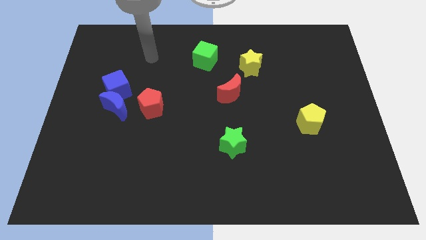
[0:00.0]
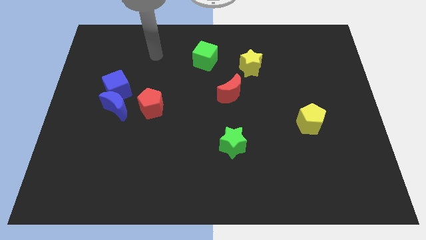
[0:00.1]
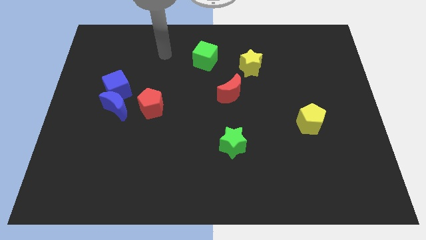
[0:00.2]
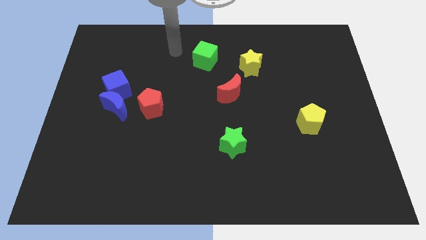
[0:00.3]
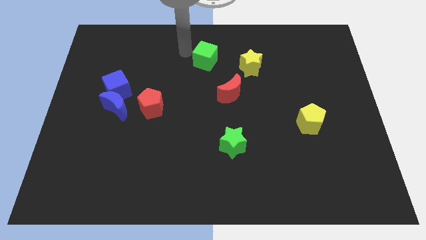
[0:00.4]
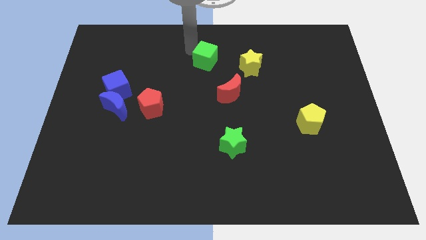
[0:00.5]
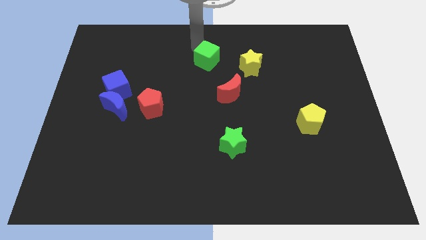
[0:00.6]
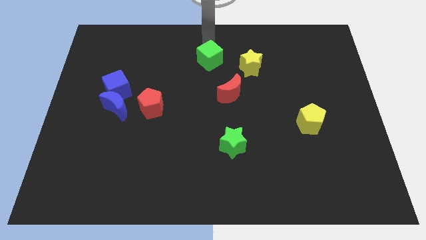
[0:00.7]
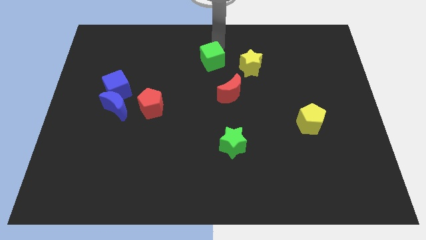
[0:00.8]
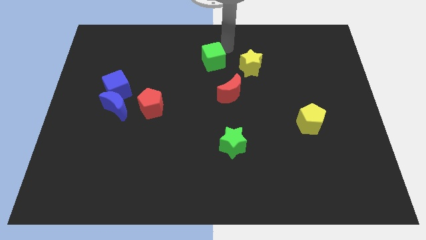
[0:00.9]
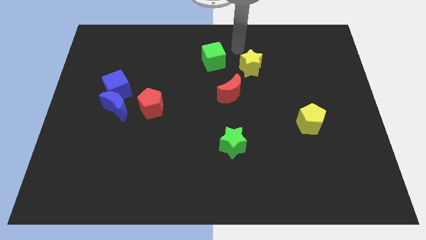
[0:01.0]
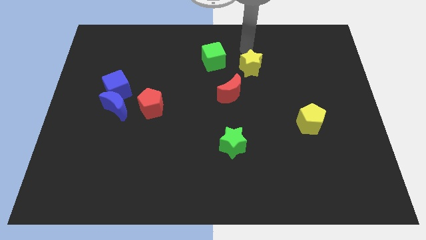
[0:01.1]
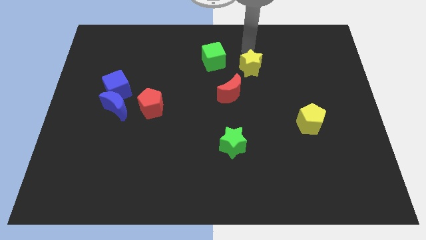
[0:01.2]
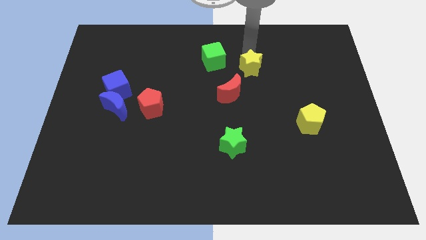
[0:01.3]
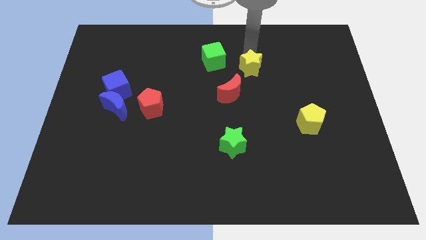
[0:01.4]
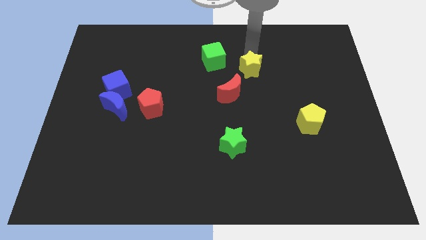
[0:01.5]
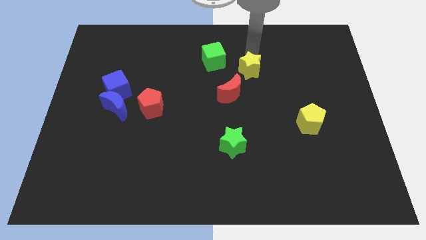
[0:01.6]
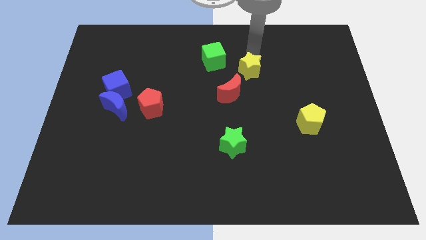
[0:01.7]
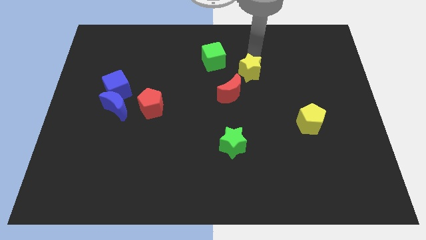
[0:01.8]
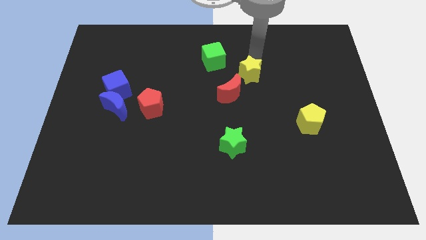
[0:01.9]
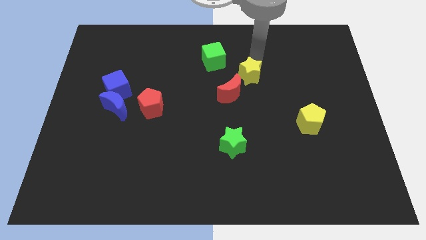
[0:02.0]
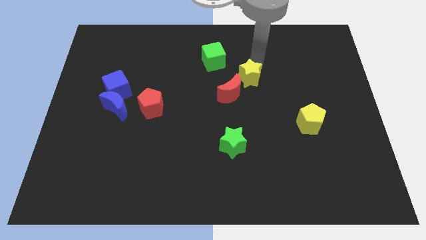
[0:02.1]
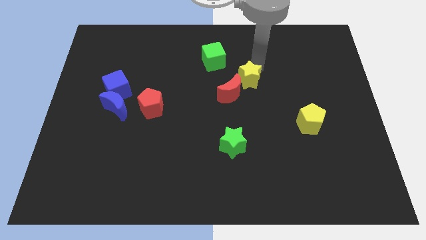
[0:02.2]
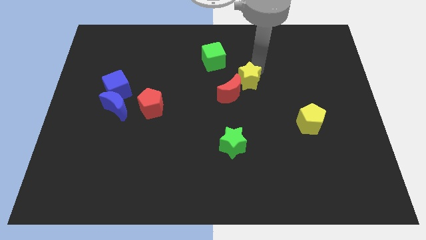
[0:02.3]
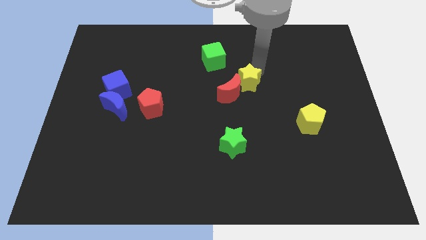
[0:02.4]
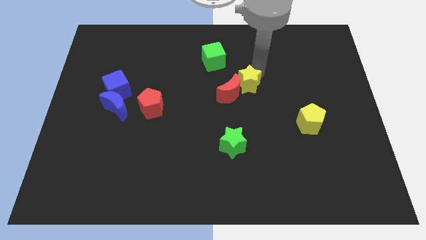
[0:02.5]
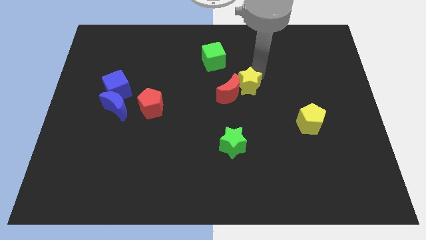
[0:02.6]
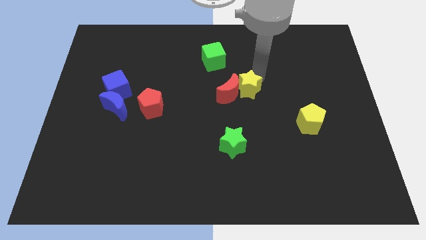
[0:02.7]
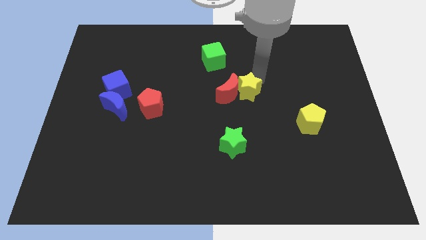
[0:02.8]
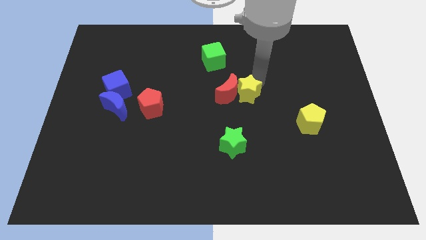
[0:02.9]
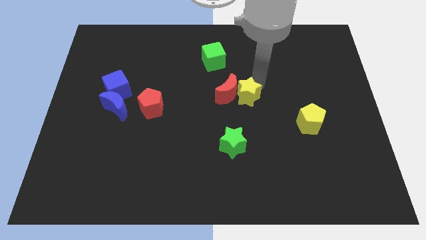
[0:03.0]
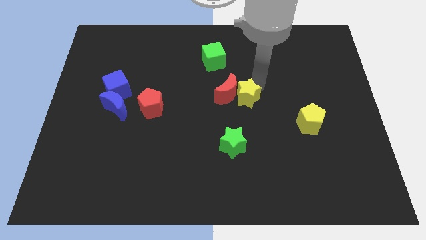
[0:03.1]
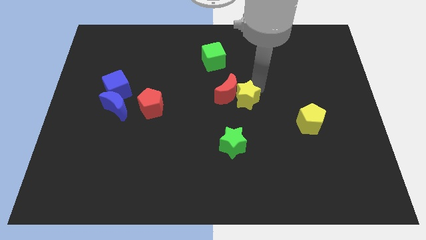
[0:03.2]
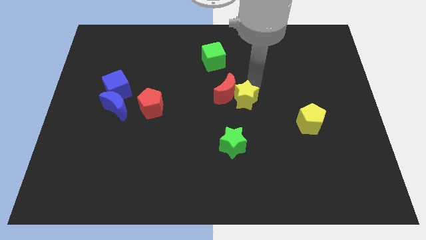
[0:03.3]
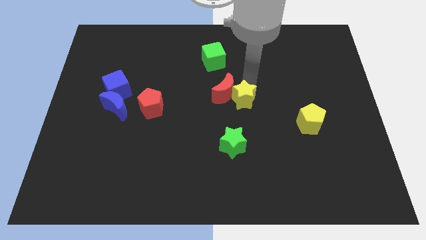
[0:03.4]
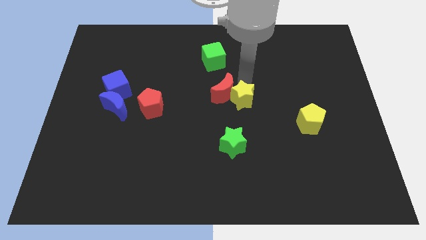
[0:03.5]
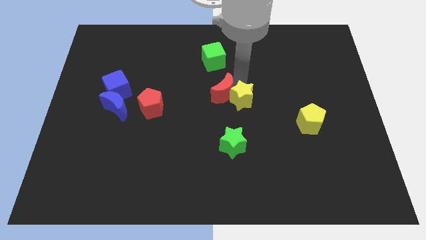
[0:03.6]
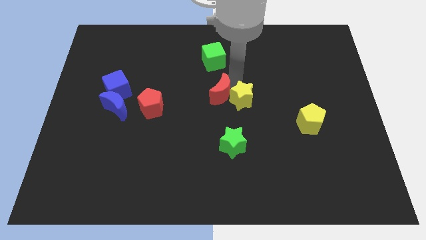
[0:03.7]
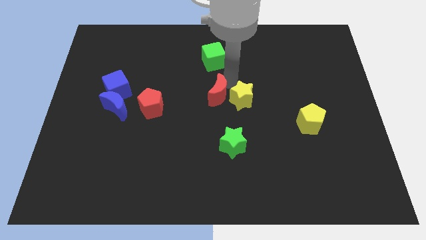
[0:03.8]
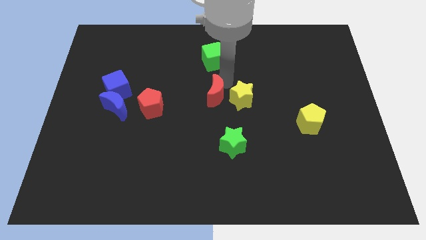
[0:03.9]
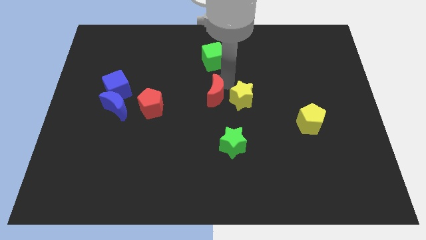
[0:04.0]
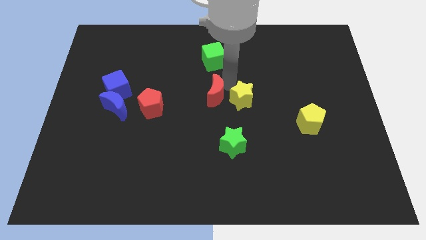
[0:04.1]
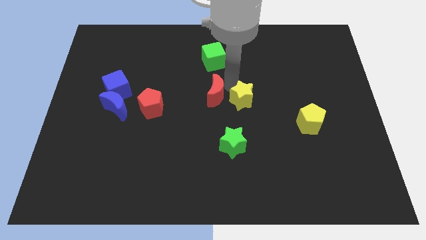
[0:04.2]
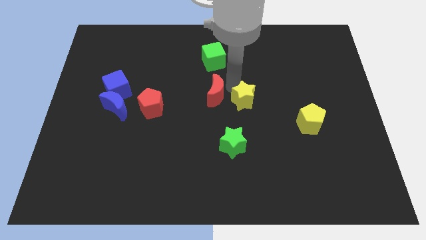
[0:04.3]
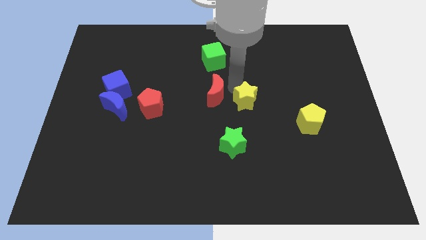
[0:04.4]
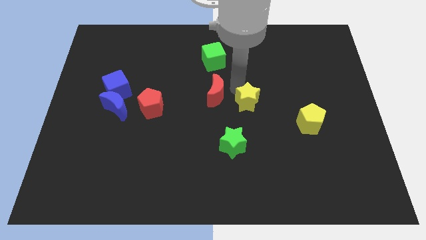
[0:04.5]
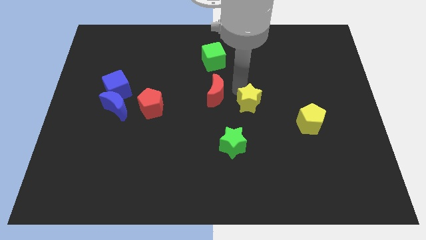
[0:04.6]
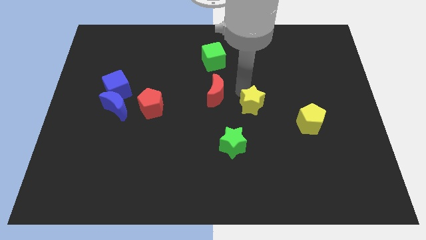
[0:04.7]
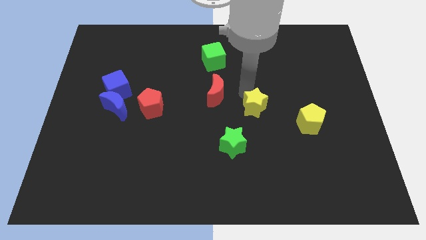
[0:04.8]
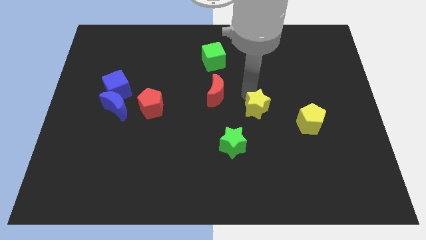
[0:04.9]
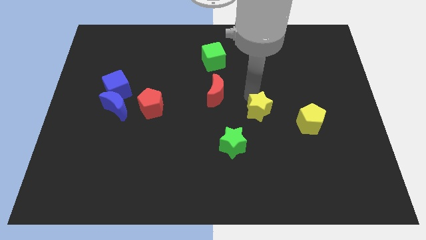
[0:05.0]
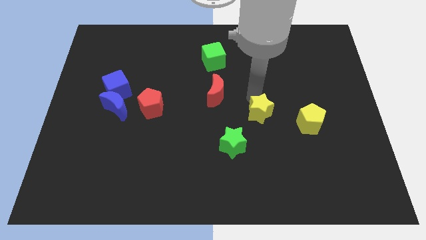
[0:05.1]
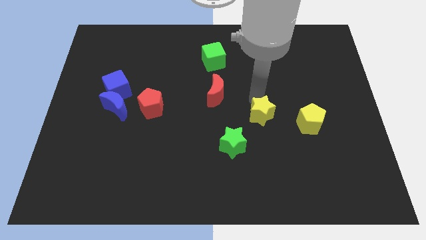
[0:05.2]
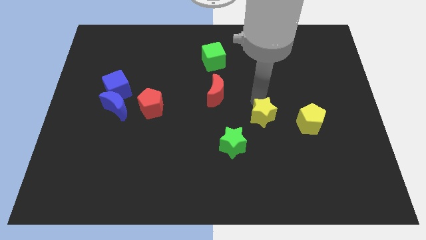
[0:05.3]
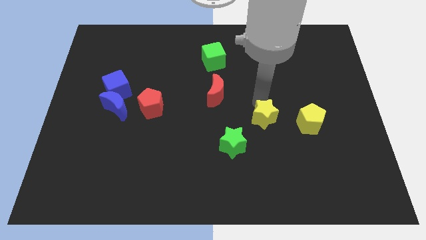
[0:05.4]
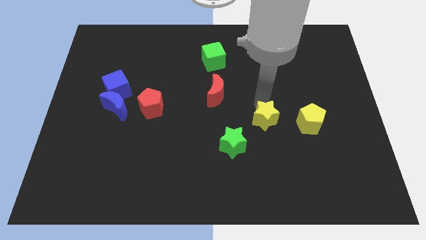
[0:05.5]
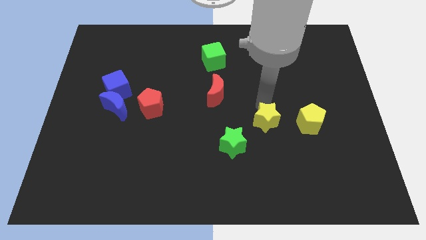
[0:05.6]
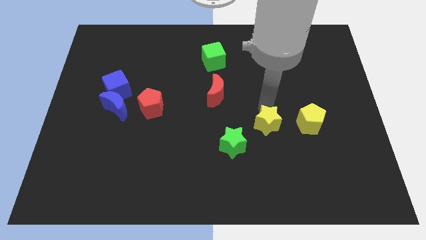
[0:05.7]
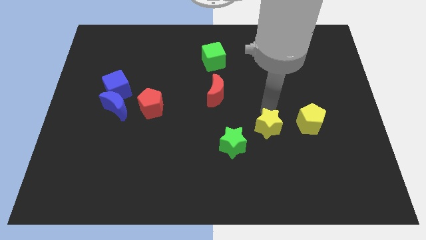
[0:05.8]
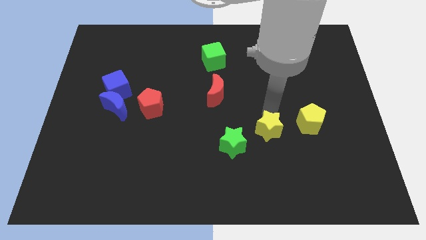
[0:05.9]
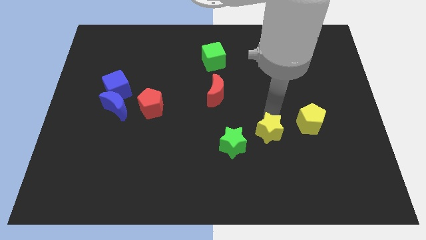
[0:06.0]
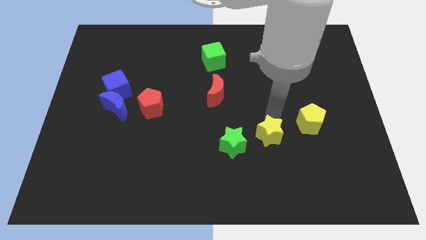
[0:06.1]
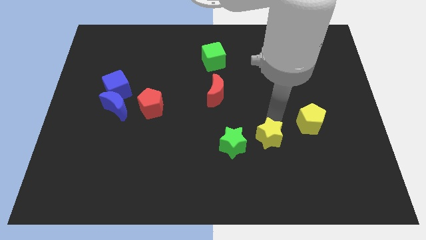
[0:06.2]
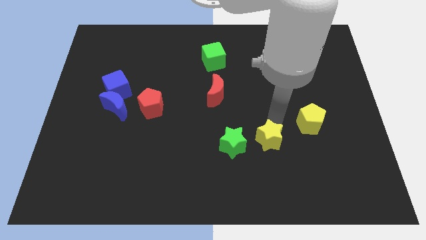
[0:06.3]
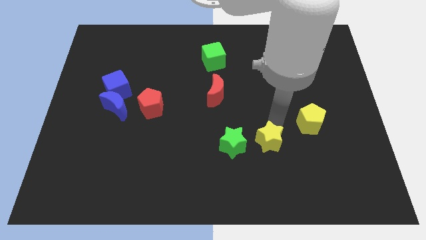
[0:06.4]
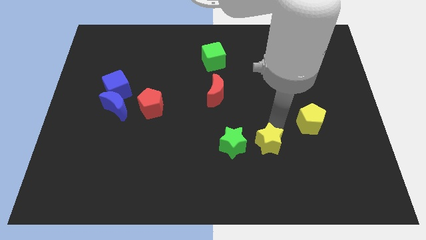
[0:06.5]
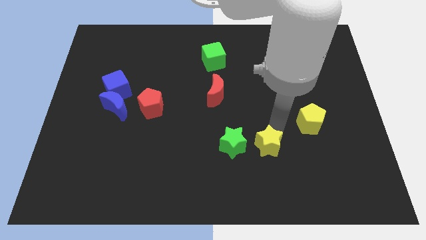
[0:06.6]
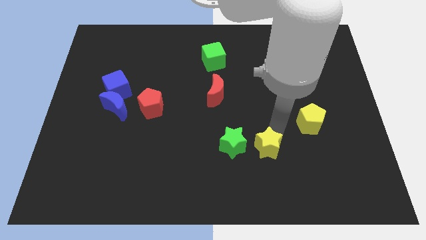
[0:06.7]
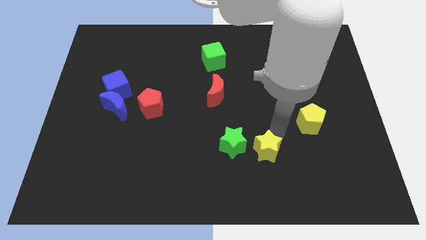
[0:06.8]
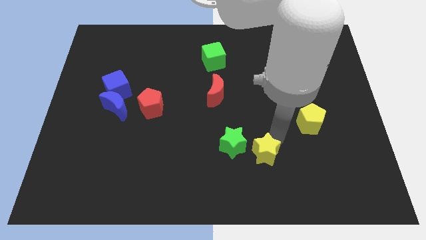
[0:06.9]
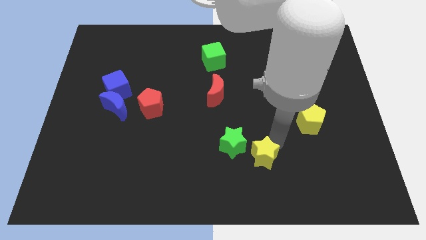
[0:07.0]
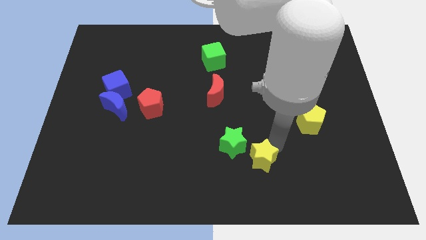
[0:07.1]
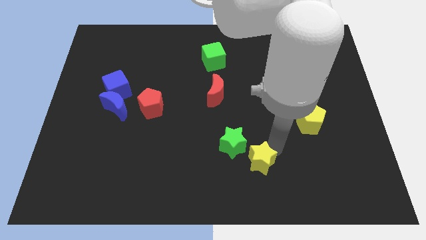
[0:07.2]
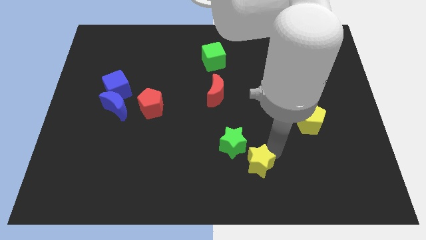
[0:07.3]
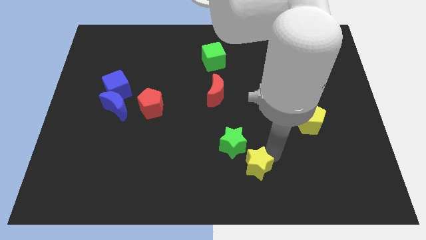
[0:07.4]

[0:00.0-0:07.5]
push the yellow star to the bottom side
